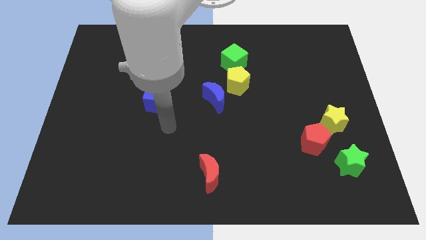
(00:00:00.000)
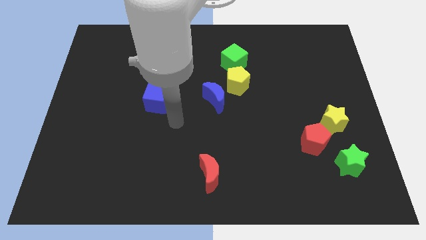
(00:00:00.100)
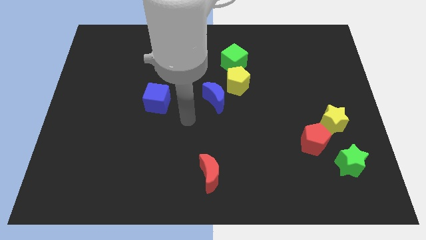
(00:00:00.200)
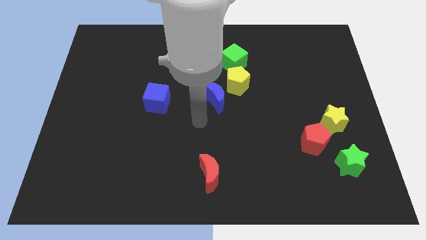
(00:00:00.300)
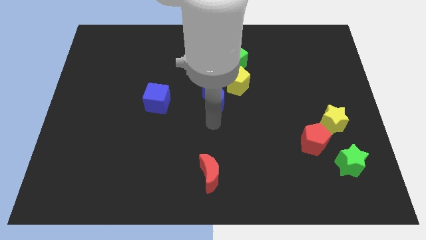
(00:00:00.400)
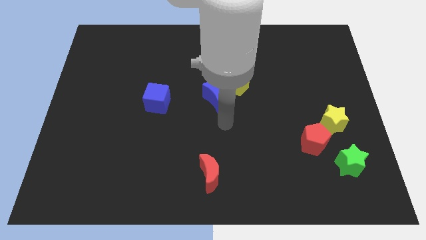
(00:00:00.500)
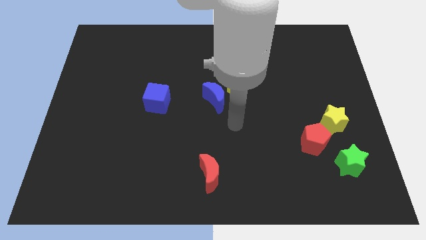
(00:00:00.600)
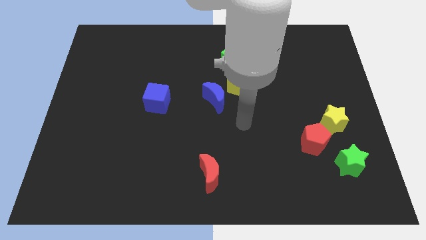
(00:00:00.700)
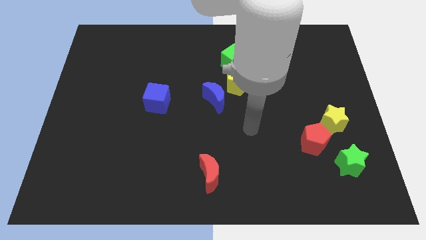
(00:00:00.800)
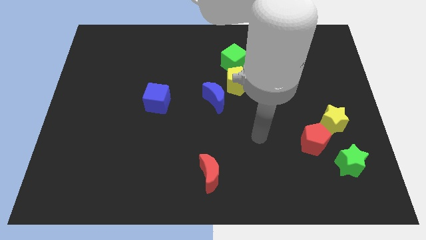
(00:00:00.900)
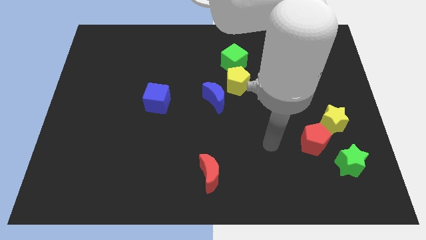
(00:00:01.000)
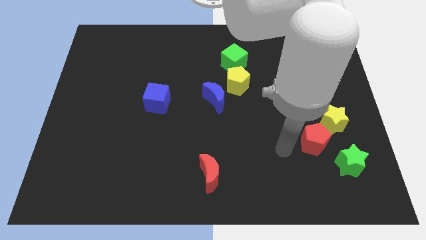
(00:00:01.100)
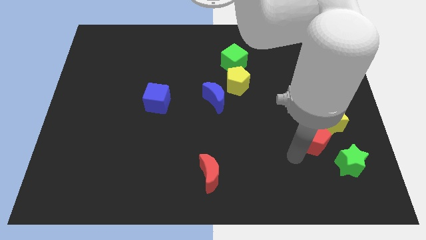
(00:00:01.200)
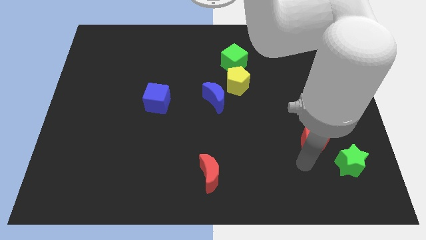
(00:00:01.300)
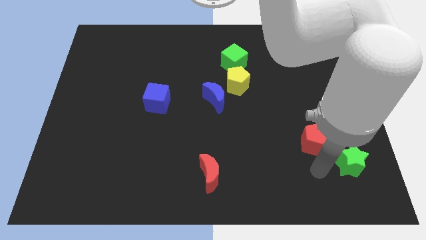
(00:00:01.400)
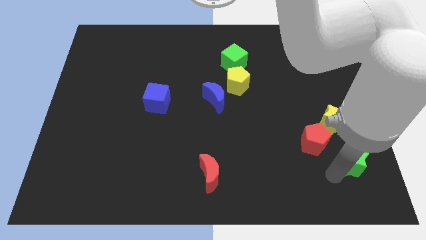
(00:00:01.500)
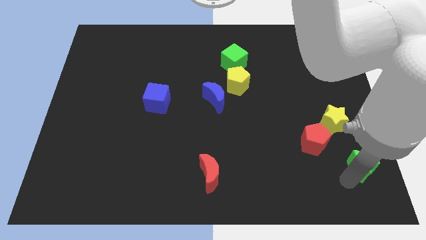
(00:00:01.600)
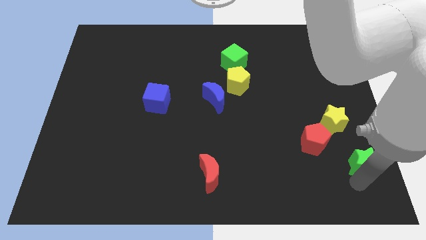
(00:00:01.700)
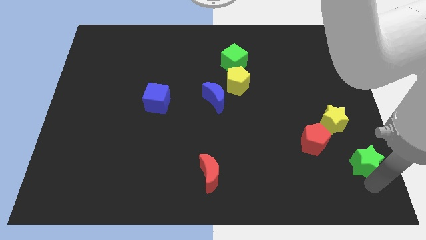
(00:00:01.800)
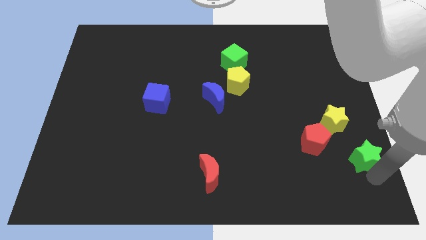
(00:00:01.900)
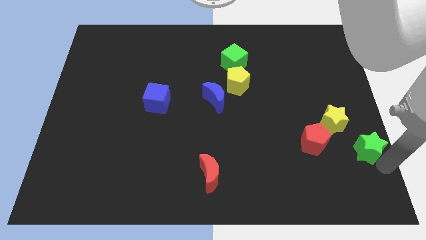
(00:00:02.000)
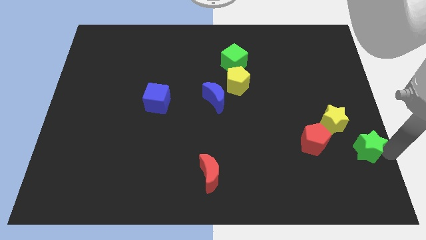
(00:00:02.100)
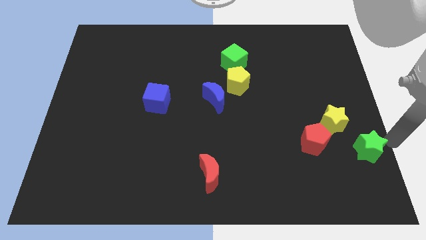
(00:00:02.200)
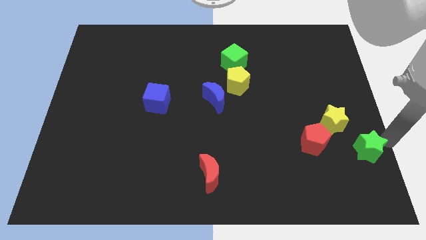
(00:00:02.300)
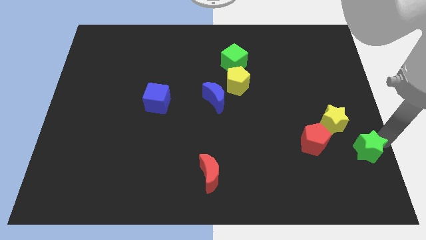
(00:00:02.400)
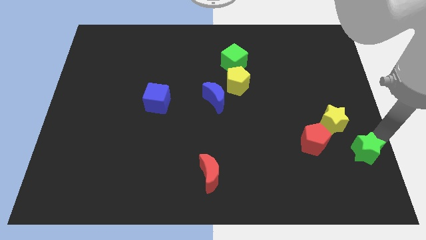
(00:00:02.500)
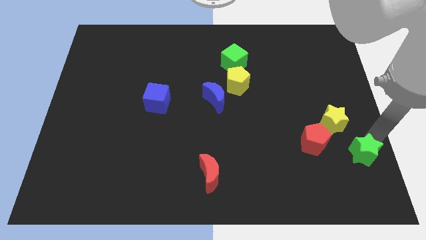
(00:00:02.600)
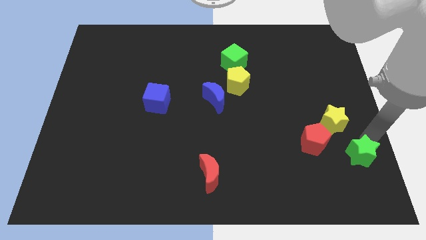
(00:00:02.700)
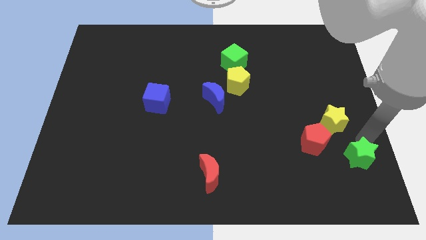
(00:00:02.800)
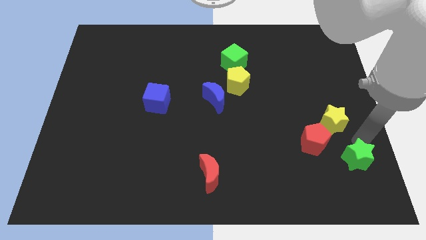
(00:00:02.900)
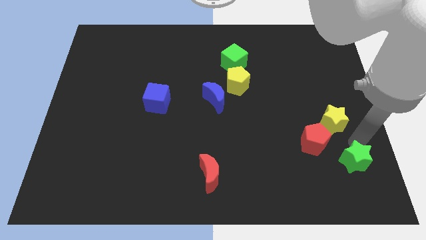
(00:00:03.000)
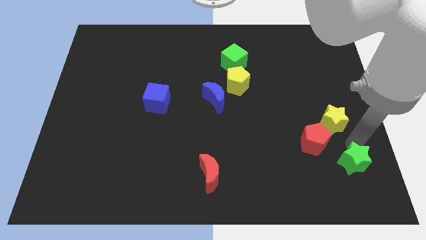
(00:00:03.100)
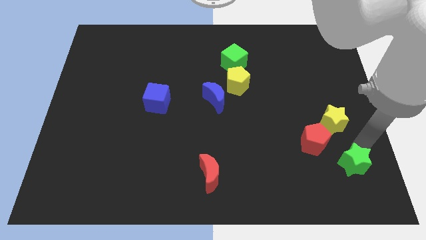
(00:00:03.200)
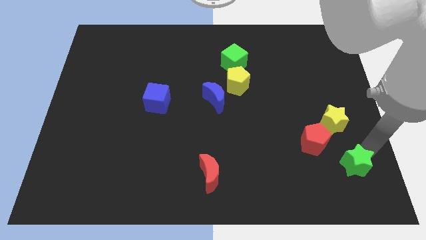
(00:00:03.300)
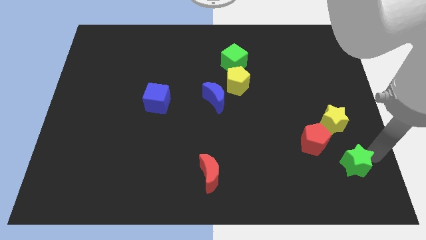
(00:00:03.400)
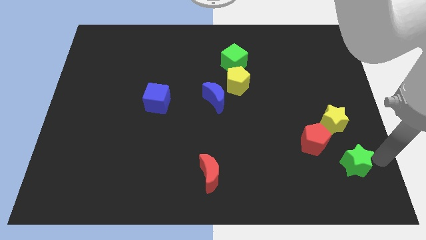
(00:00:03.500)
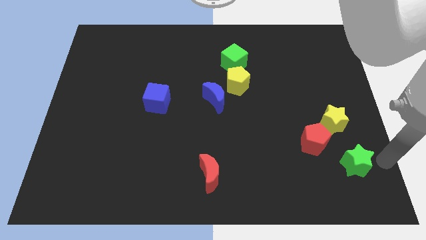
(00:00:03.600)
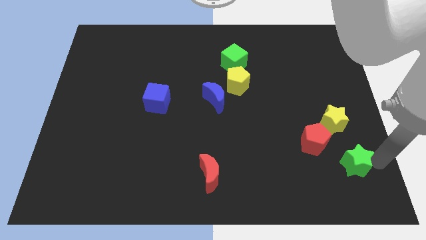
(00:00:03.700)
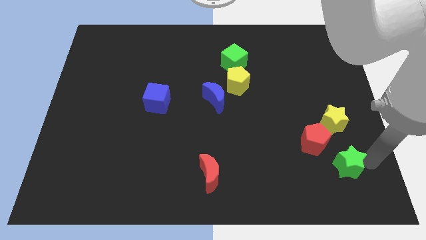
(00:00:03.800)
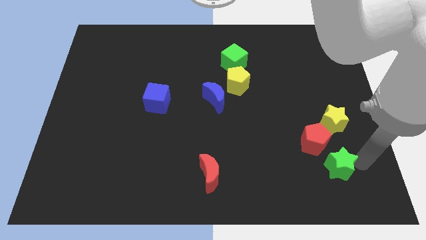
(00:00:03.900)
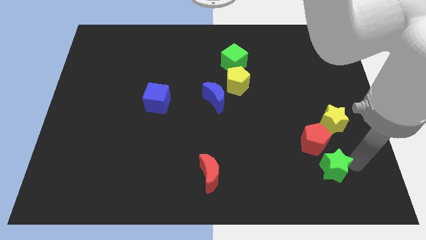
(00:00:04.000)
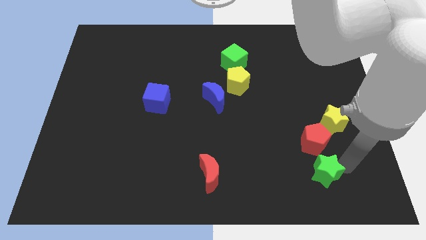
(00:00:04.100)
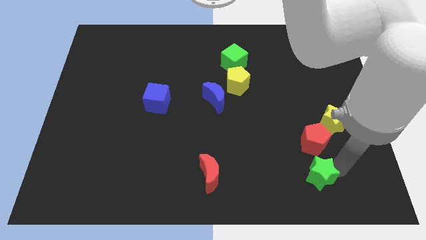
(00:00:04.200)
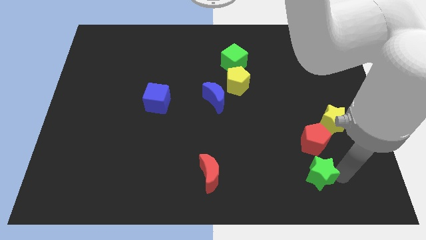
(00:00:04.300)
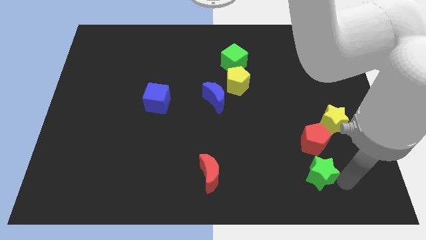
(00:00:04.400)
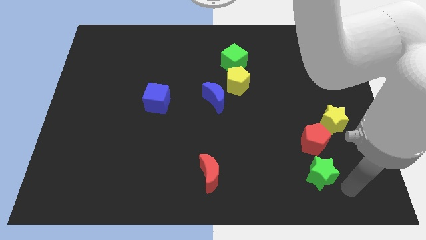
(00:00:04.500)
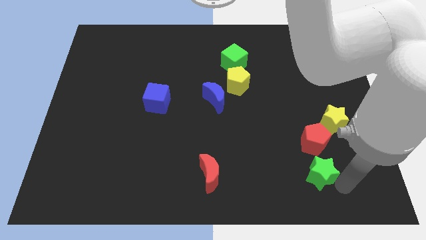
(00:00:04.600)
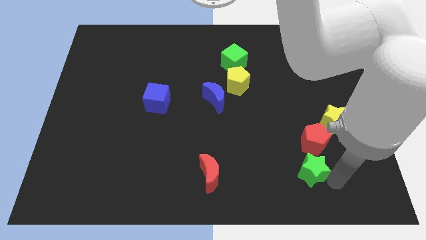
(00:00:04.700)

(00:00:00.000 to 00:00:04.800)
move the green star a little bit left

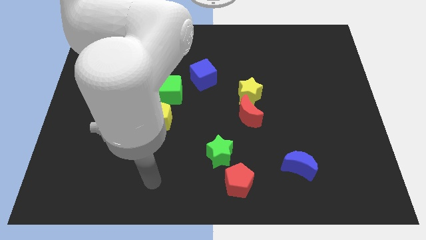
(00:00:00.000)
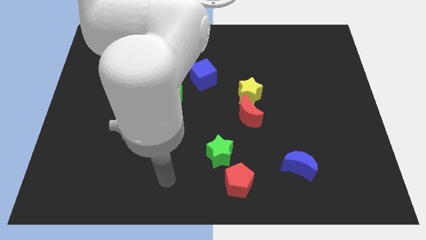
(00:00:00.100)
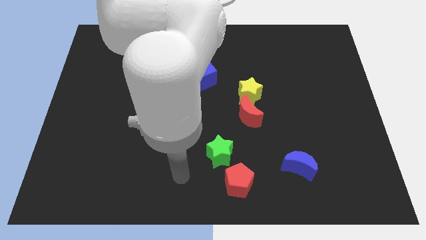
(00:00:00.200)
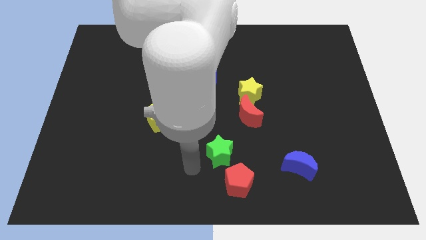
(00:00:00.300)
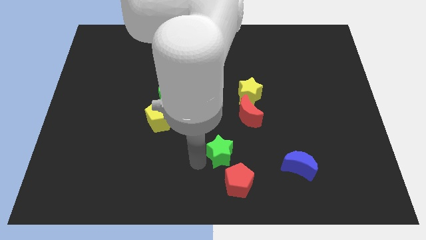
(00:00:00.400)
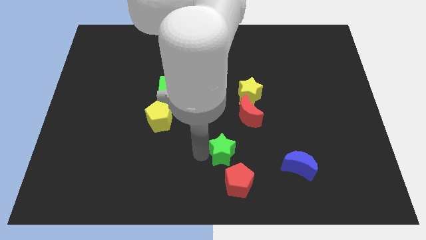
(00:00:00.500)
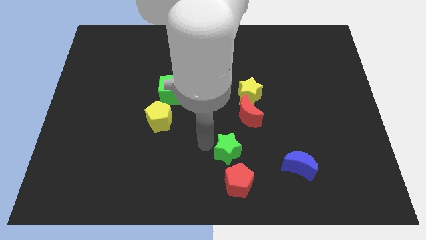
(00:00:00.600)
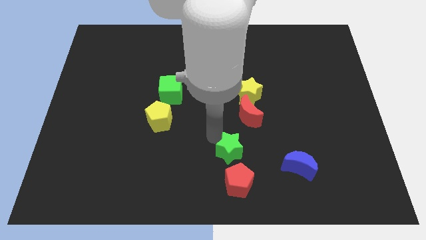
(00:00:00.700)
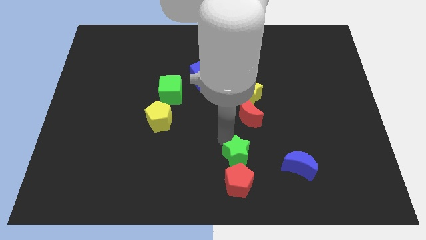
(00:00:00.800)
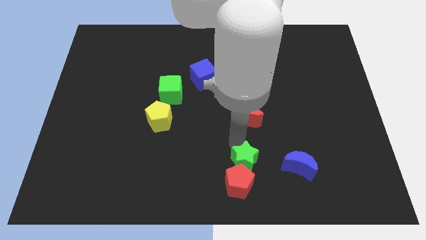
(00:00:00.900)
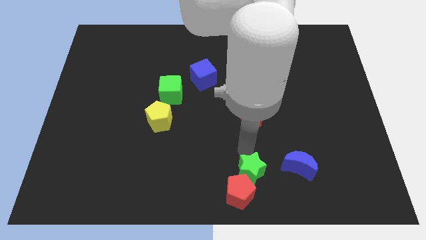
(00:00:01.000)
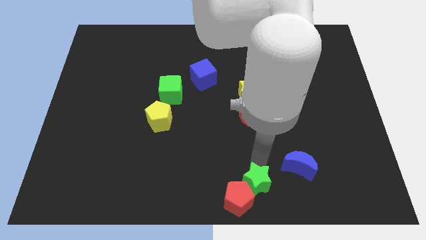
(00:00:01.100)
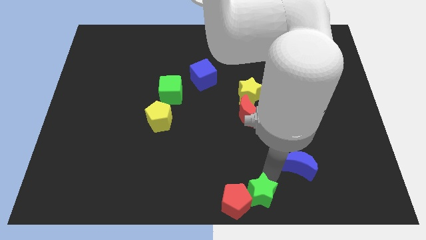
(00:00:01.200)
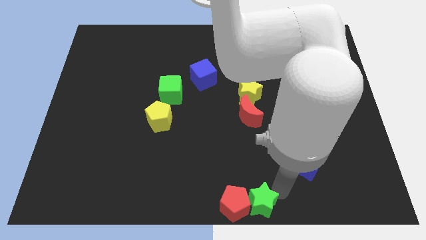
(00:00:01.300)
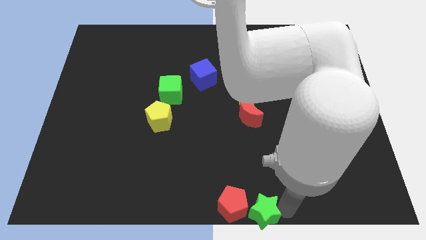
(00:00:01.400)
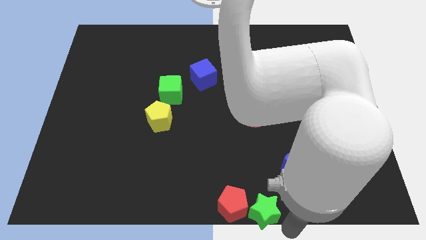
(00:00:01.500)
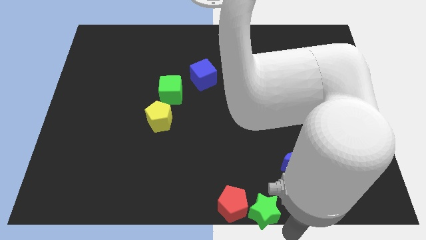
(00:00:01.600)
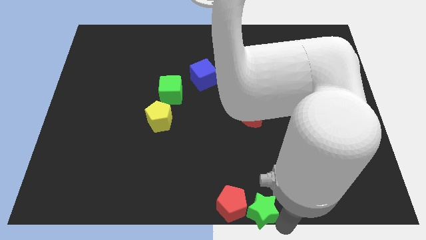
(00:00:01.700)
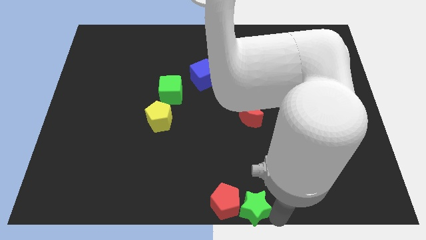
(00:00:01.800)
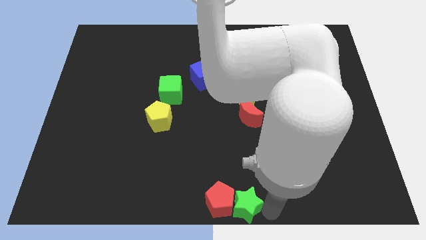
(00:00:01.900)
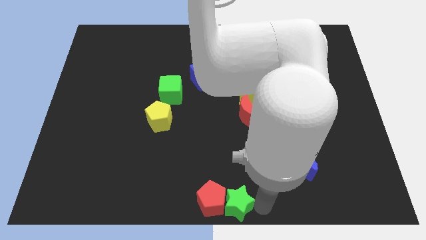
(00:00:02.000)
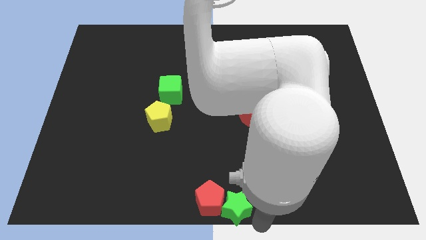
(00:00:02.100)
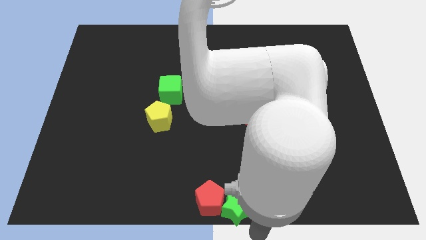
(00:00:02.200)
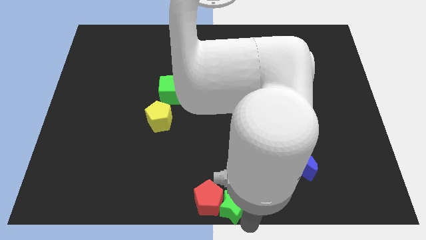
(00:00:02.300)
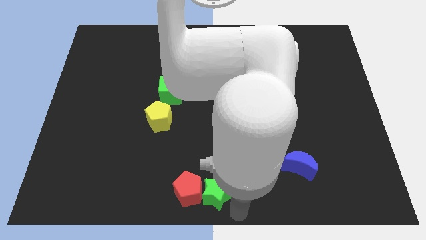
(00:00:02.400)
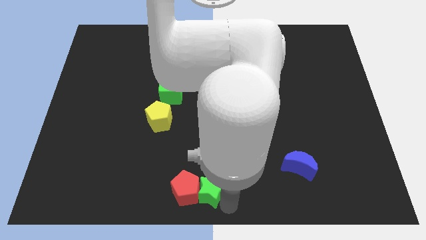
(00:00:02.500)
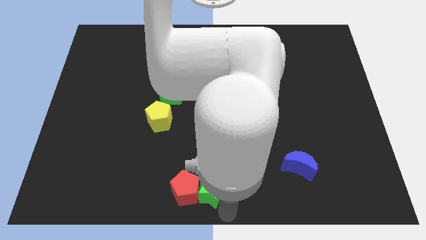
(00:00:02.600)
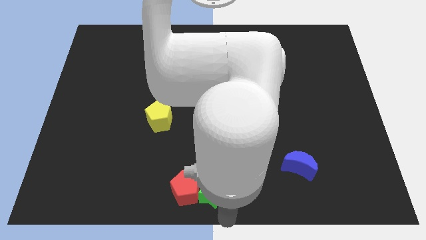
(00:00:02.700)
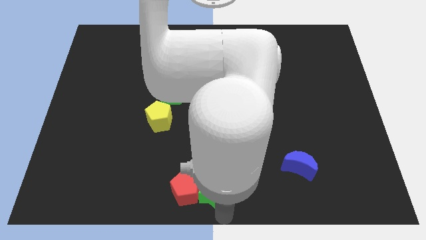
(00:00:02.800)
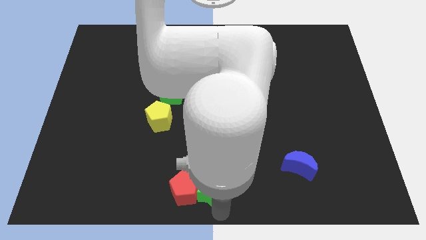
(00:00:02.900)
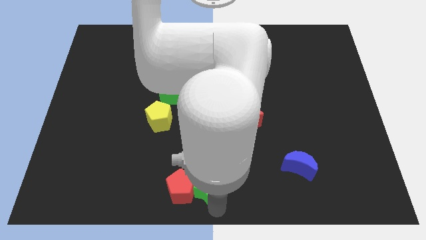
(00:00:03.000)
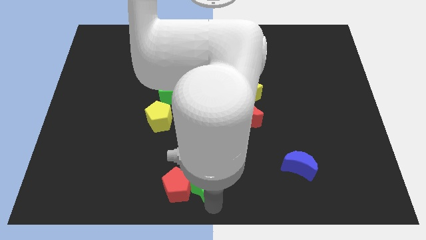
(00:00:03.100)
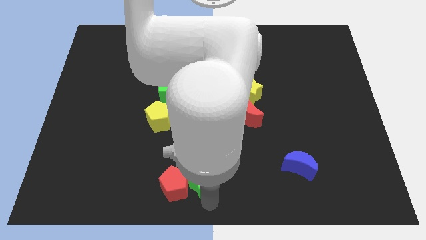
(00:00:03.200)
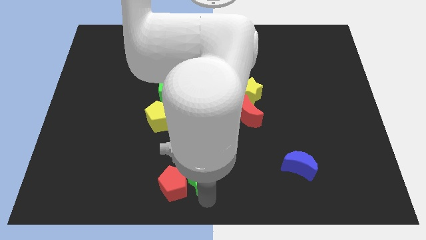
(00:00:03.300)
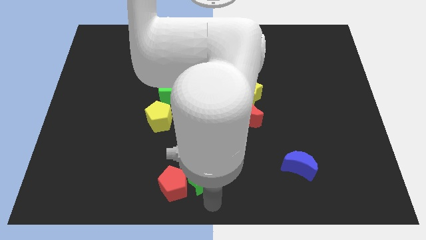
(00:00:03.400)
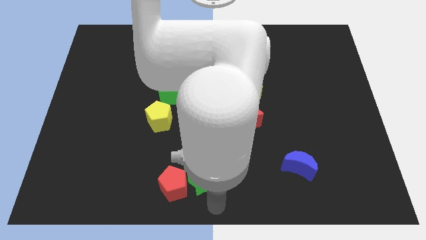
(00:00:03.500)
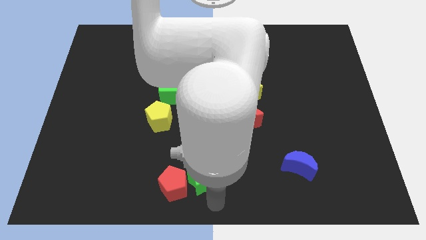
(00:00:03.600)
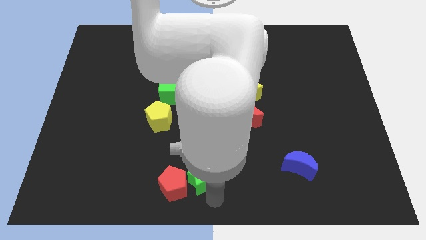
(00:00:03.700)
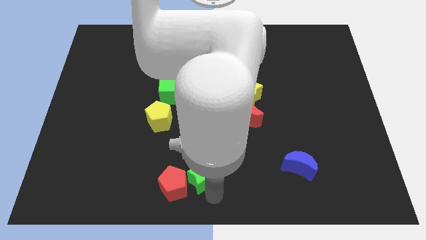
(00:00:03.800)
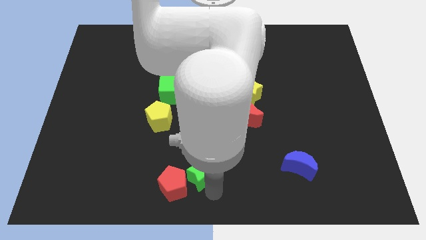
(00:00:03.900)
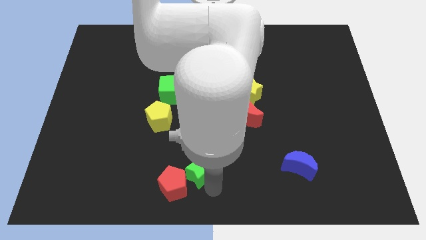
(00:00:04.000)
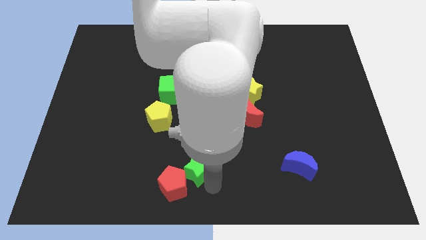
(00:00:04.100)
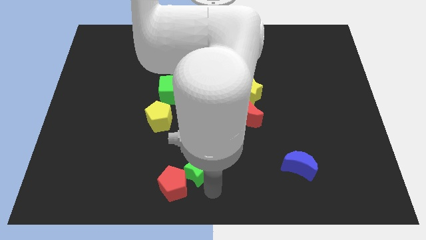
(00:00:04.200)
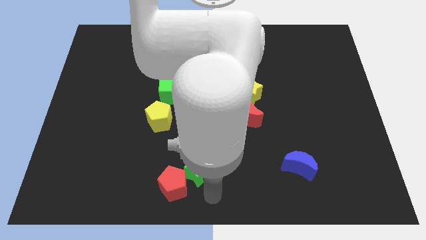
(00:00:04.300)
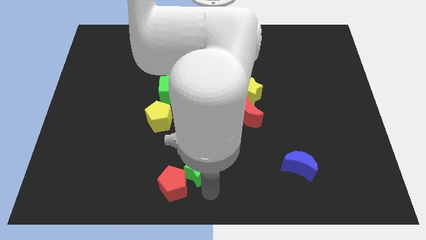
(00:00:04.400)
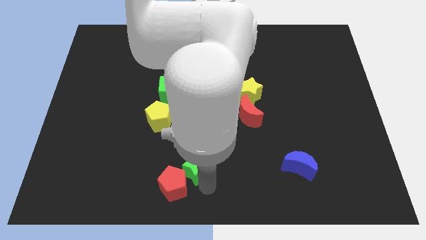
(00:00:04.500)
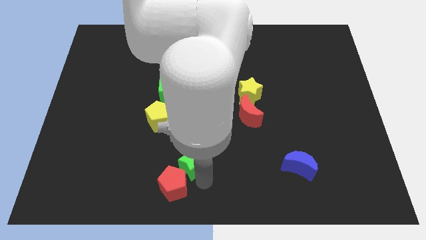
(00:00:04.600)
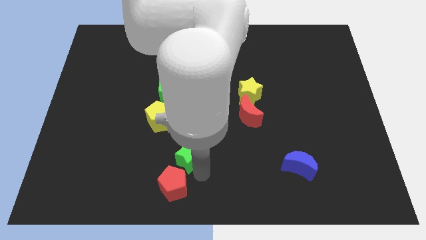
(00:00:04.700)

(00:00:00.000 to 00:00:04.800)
push the green star somewhat left
